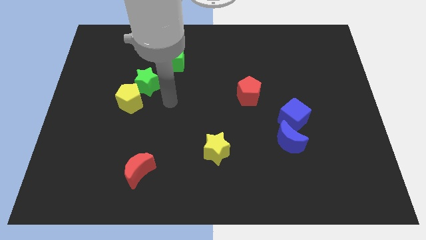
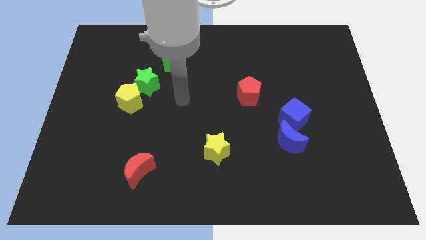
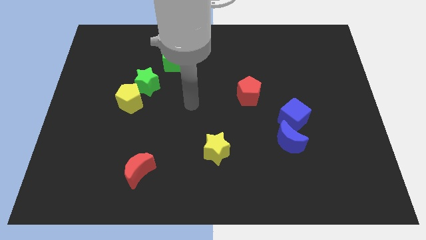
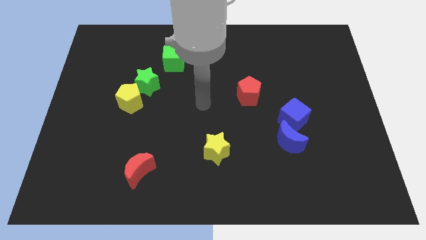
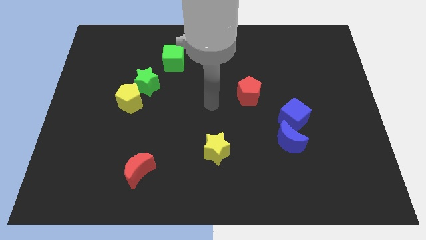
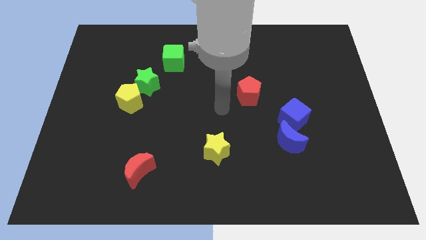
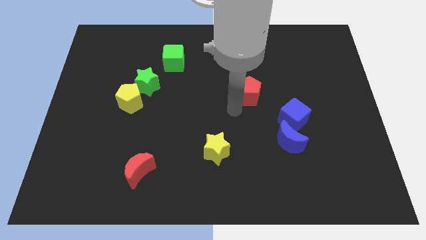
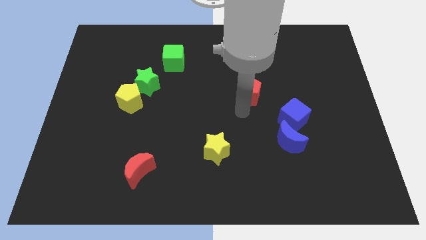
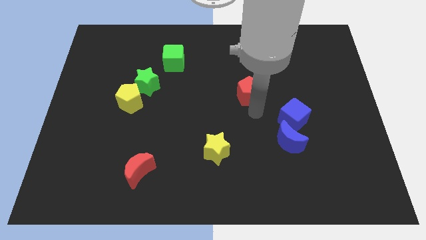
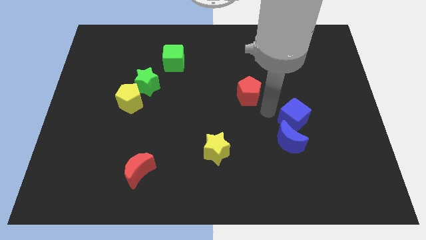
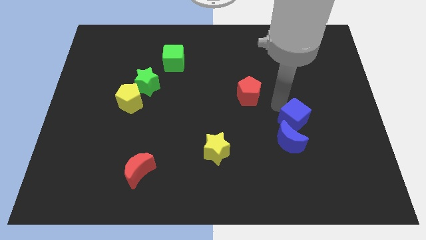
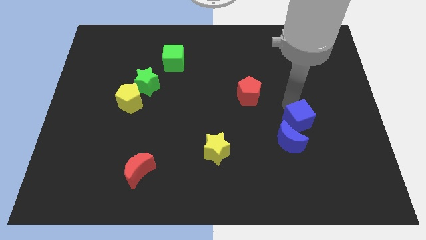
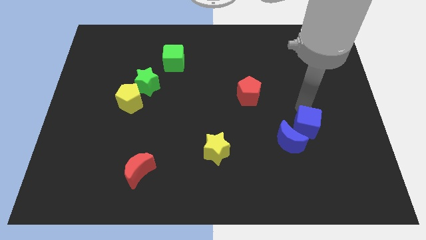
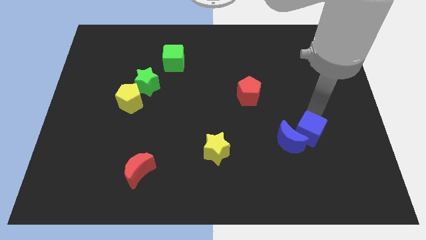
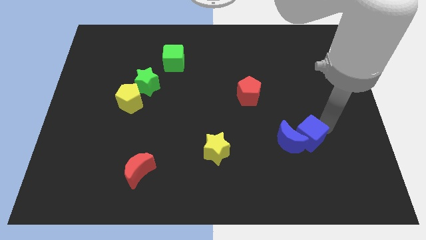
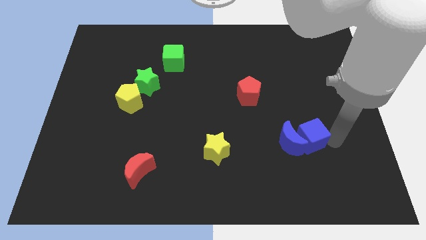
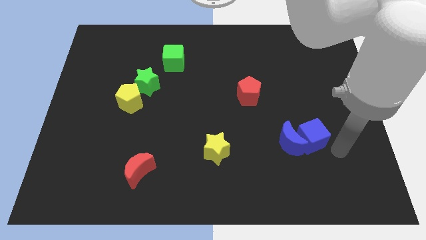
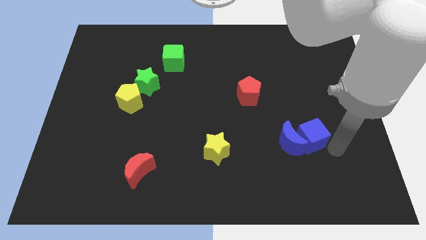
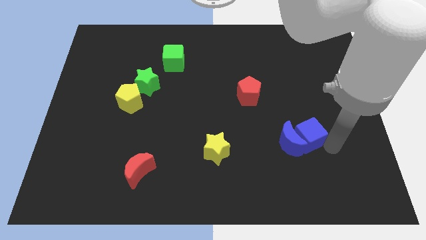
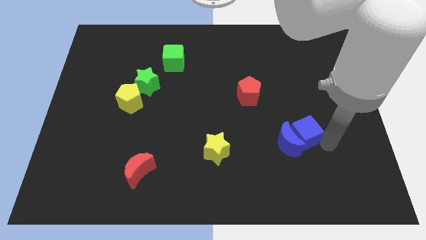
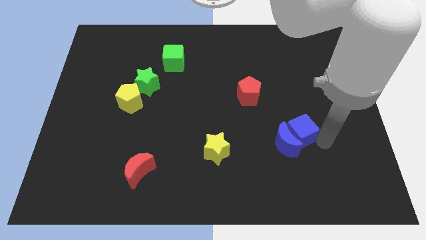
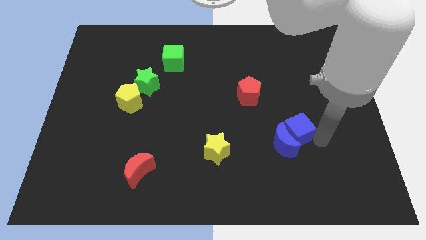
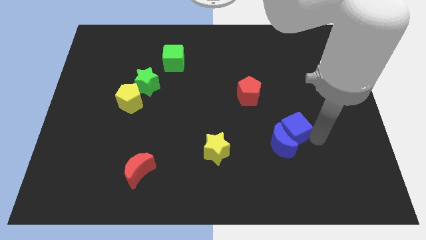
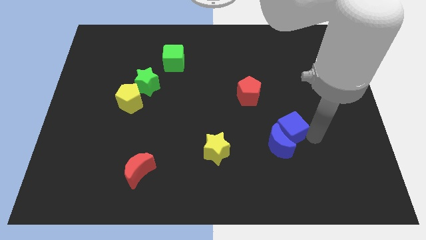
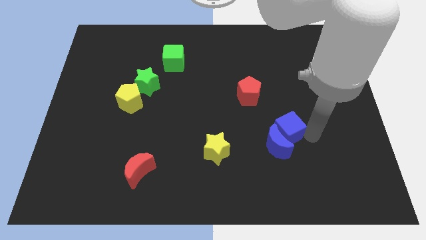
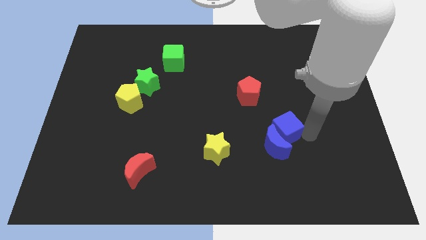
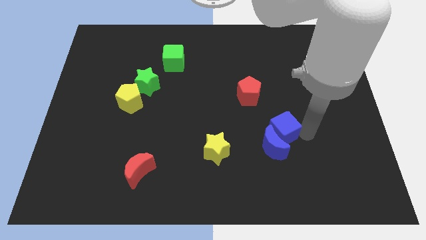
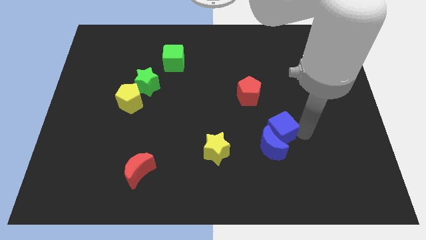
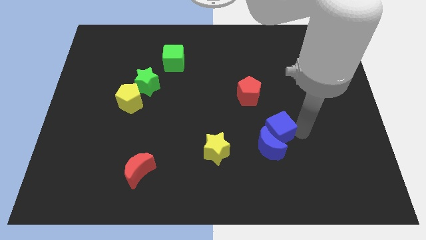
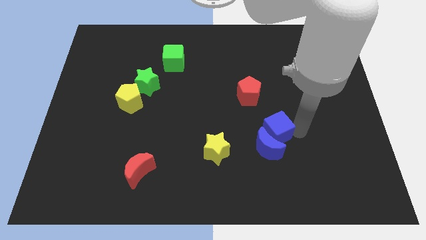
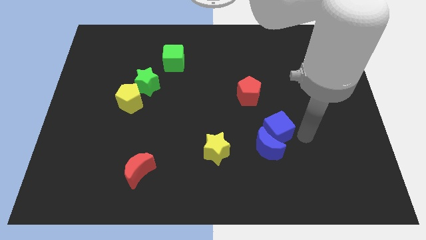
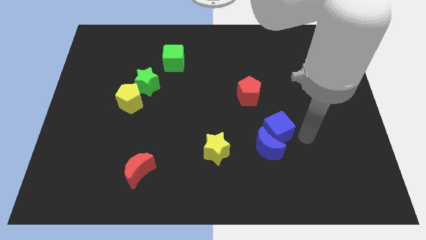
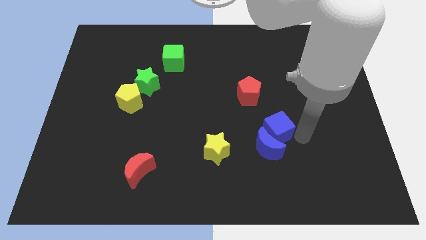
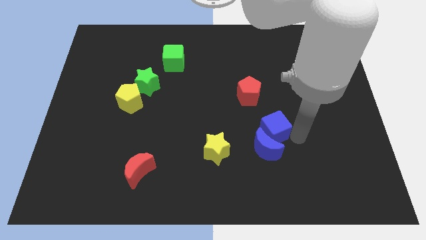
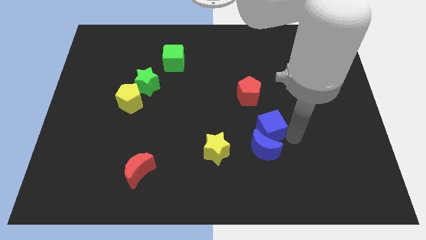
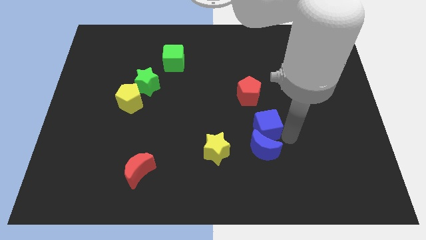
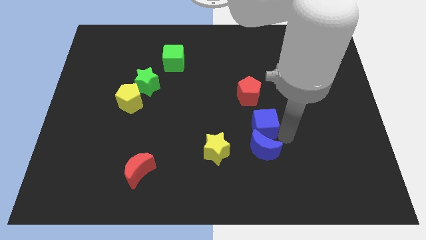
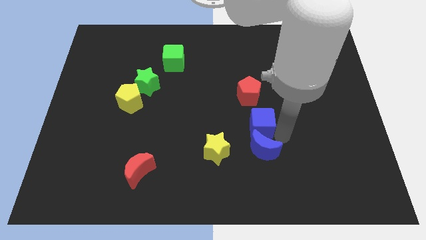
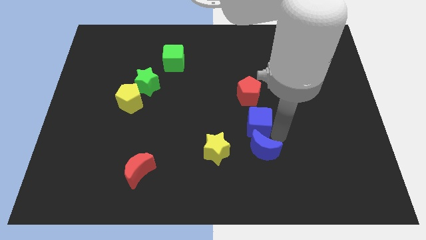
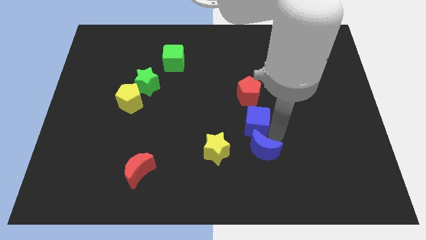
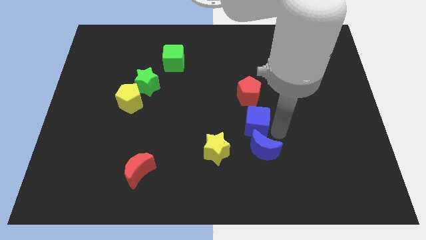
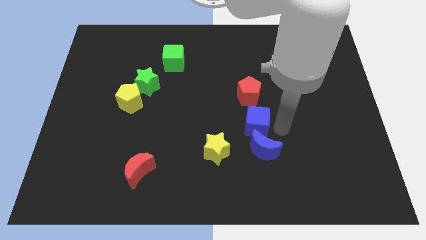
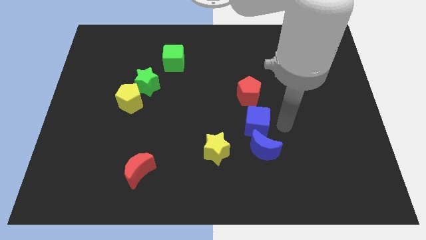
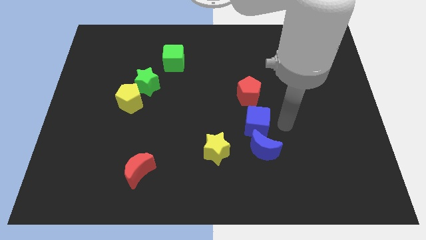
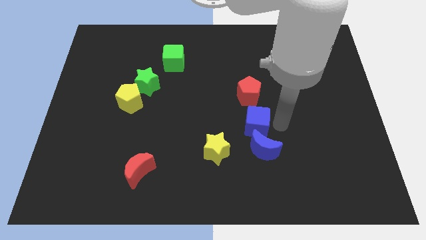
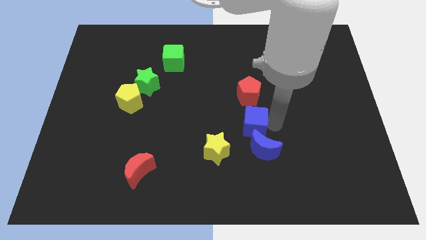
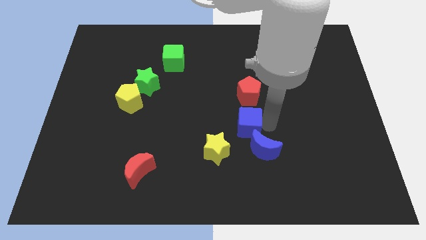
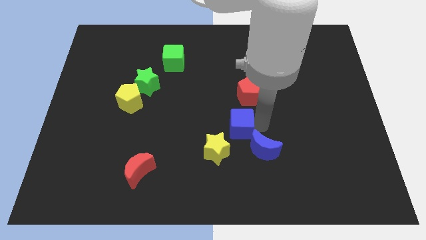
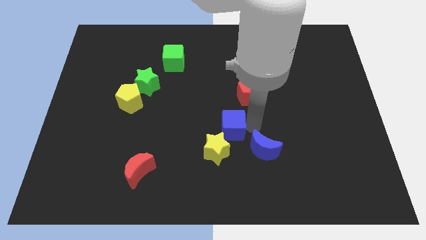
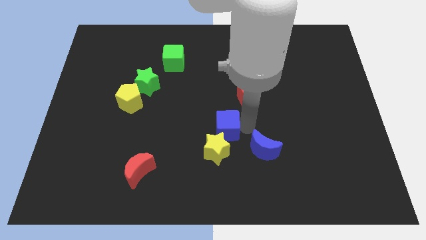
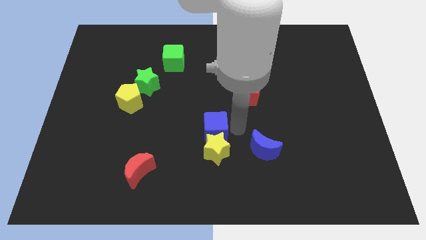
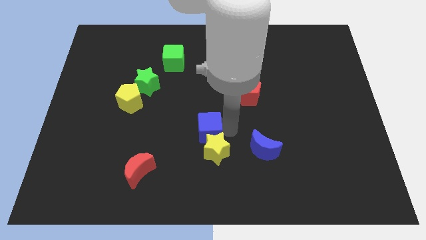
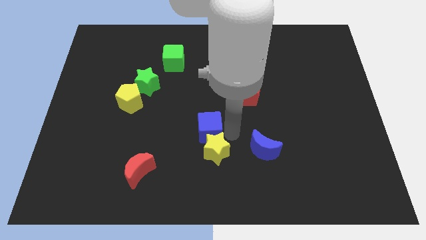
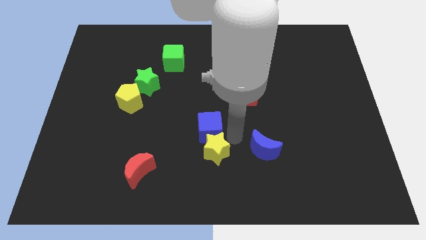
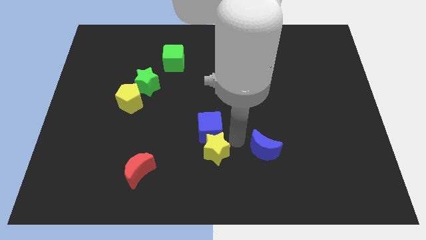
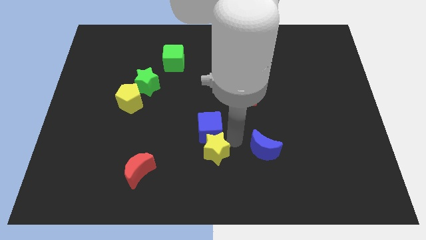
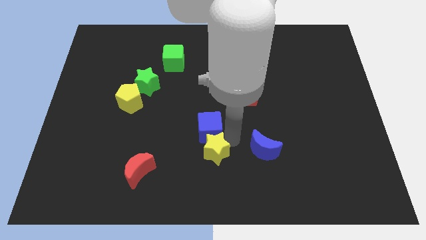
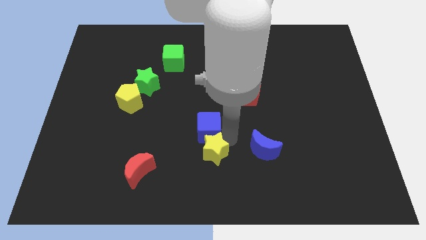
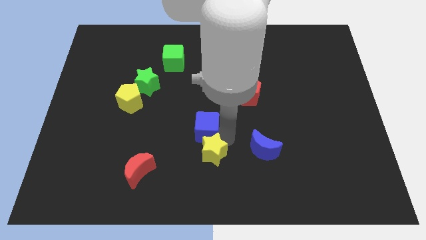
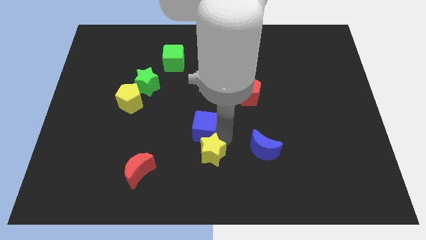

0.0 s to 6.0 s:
push the blue cube left

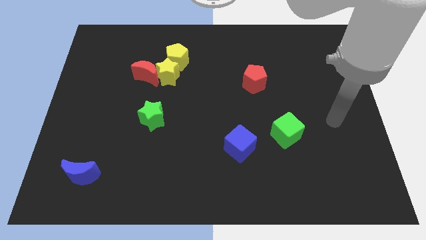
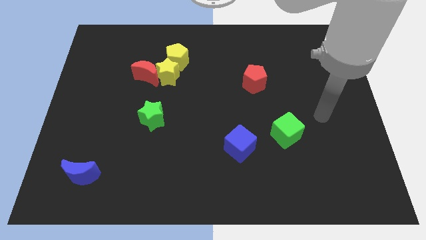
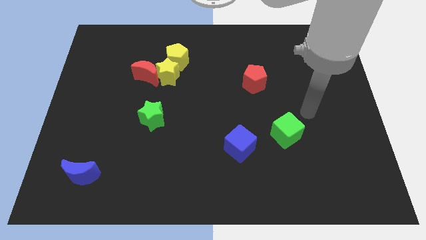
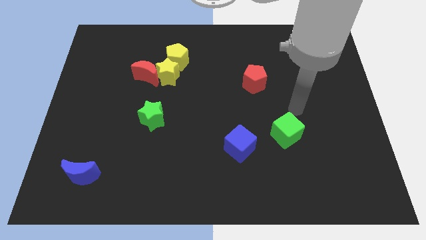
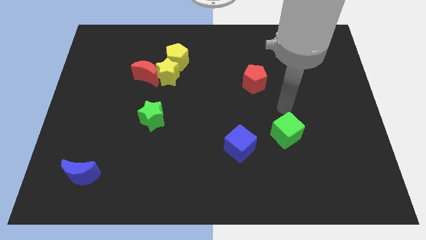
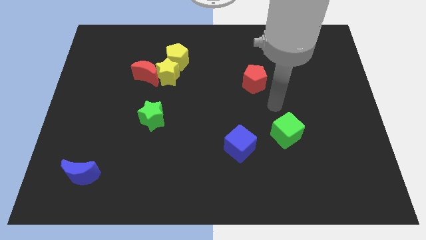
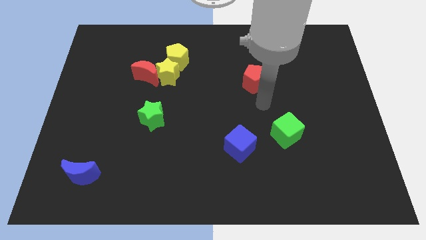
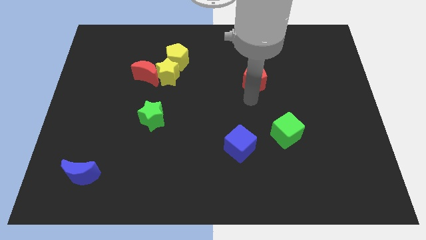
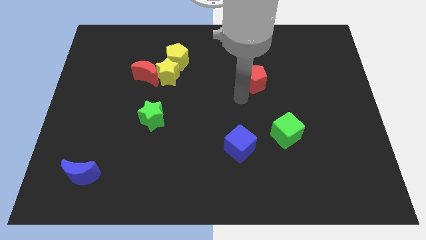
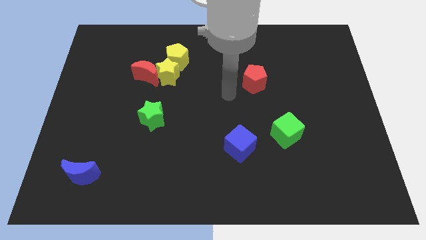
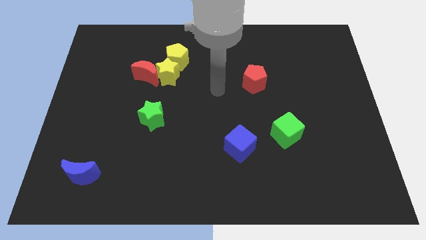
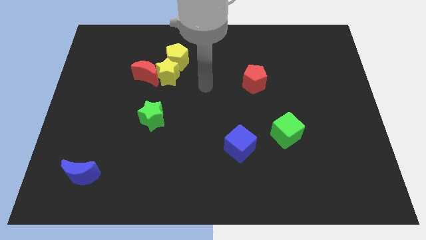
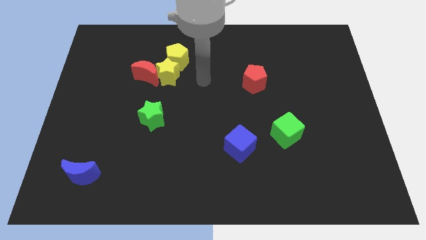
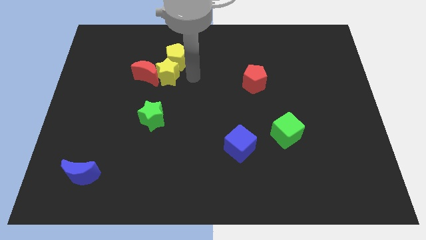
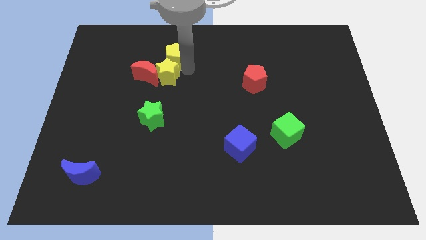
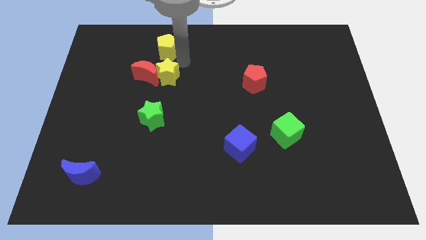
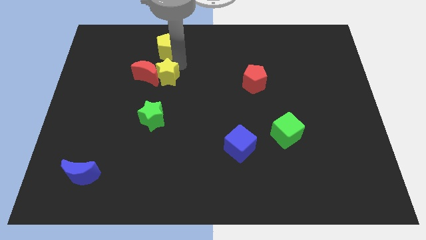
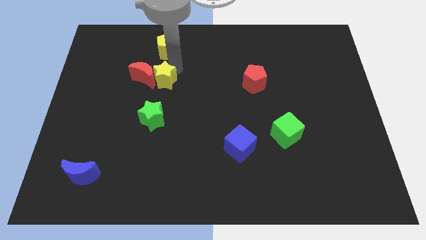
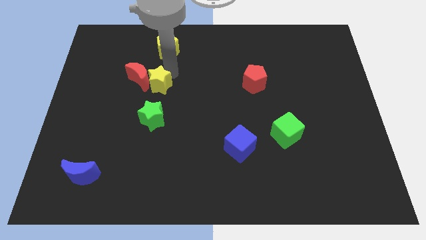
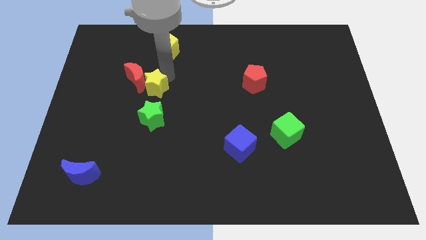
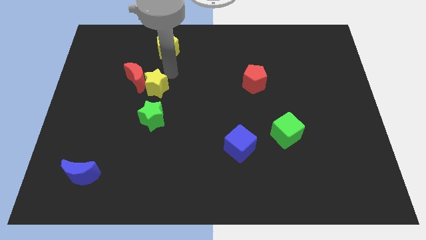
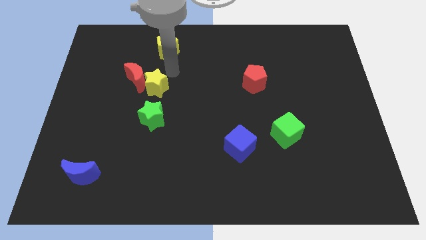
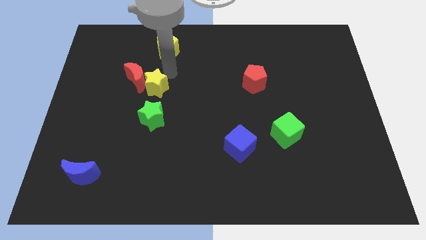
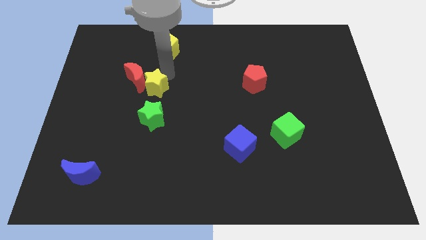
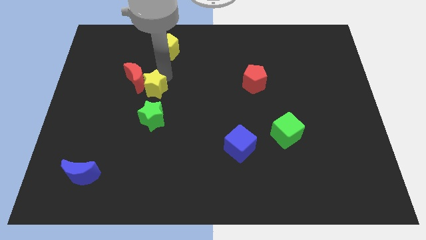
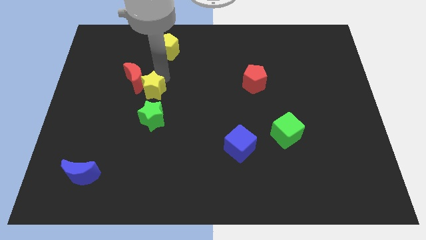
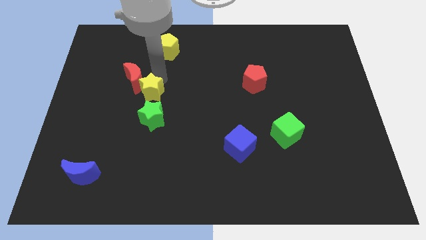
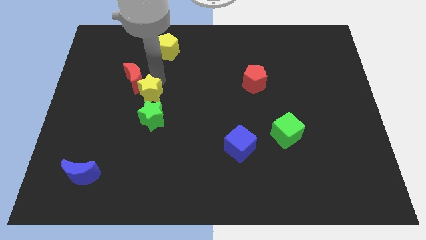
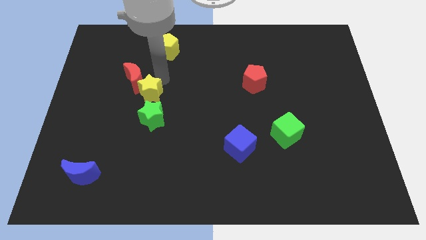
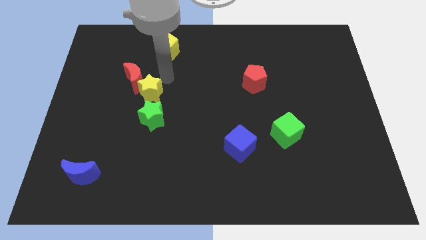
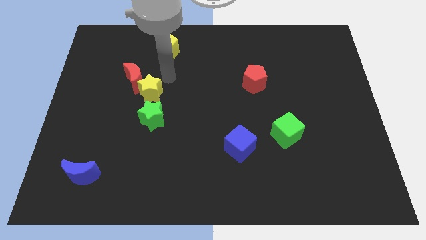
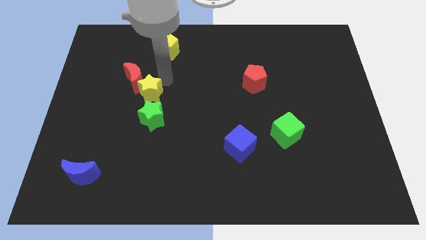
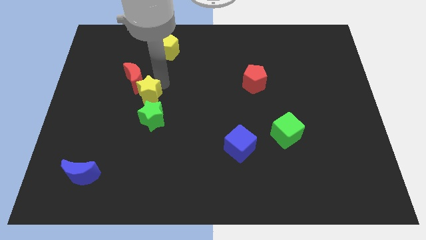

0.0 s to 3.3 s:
slide the yellow star a bit diagonally down and left
